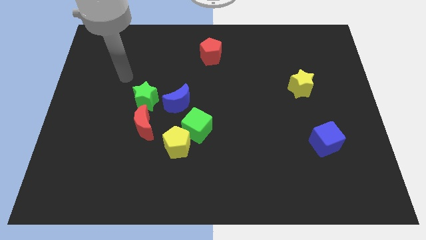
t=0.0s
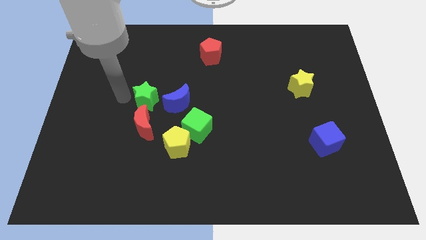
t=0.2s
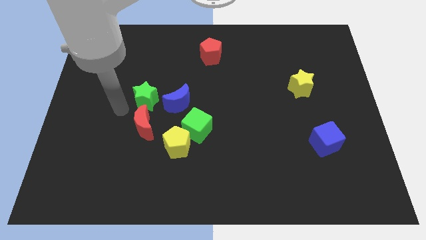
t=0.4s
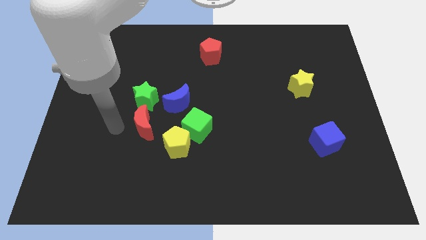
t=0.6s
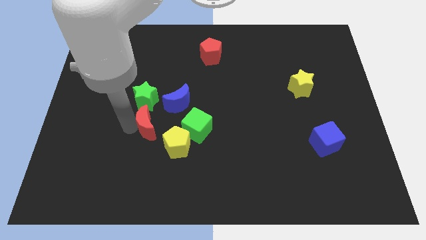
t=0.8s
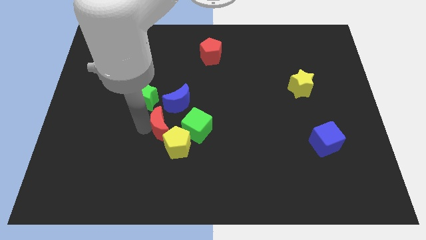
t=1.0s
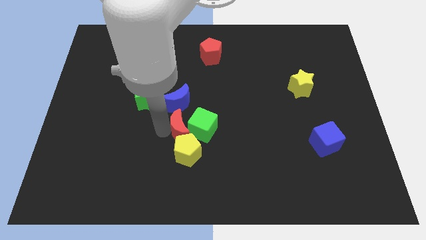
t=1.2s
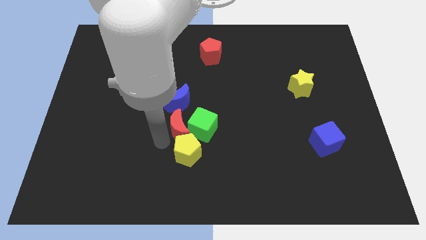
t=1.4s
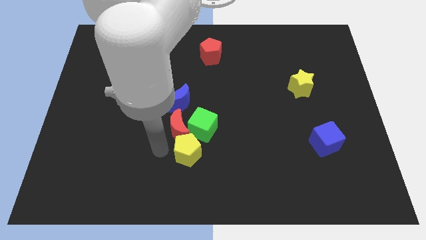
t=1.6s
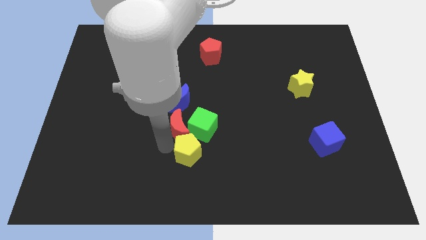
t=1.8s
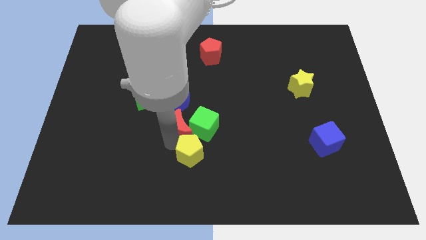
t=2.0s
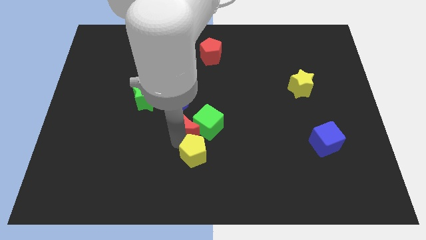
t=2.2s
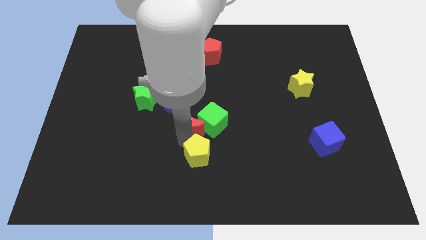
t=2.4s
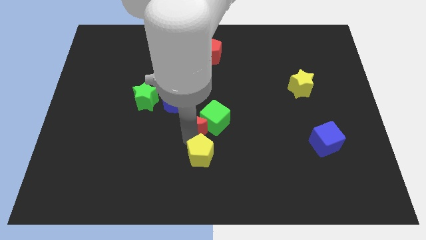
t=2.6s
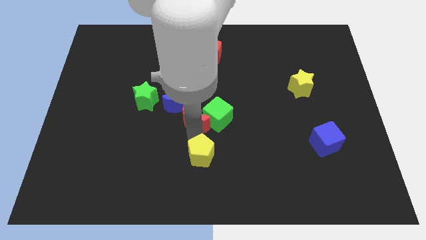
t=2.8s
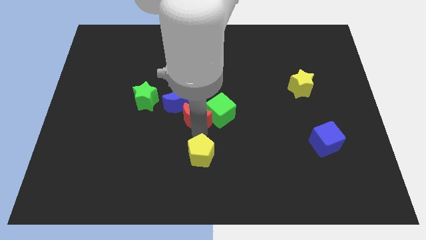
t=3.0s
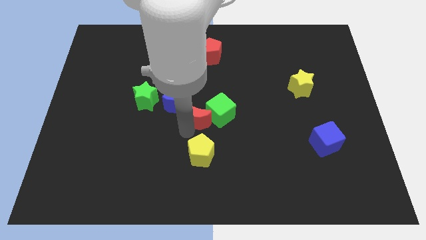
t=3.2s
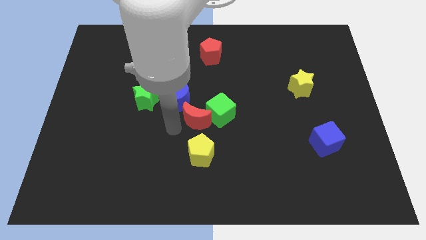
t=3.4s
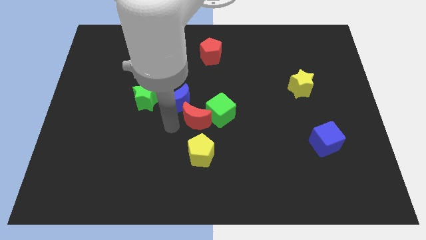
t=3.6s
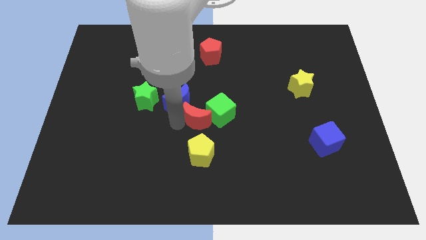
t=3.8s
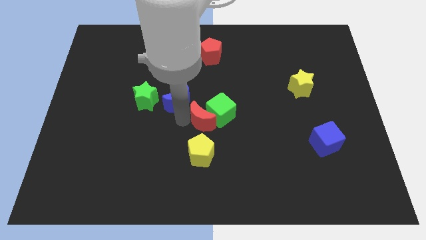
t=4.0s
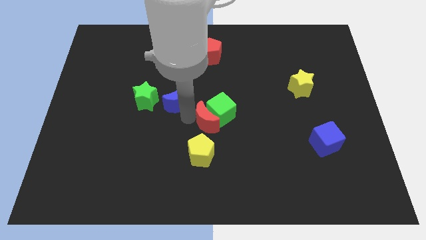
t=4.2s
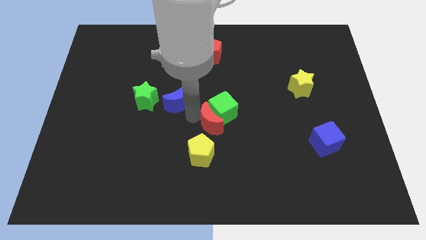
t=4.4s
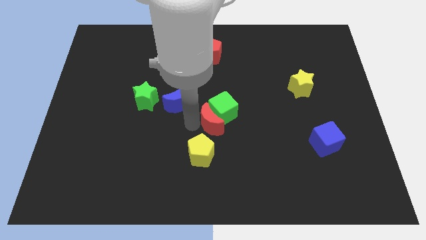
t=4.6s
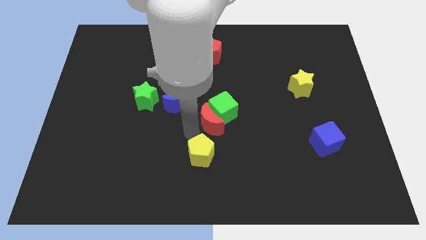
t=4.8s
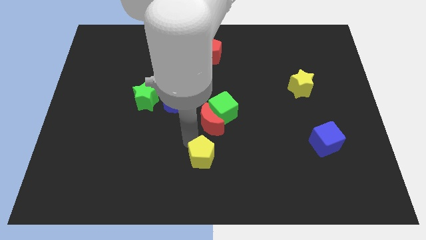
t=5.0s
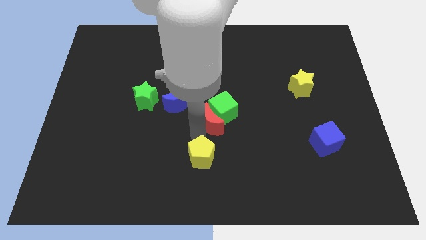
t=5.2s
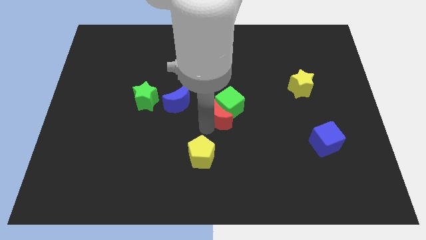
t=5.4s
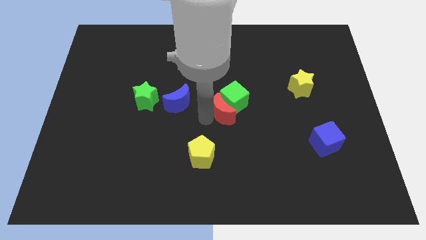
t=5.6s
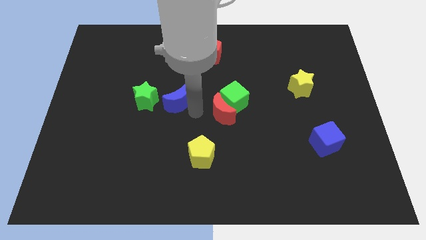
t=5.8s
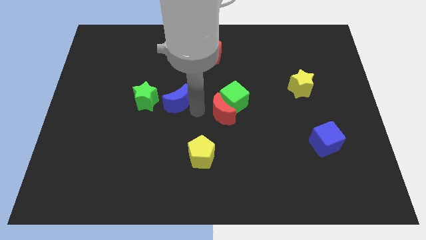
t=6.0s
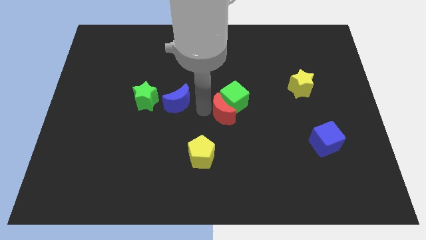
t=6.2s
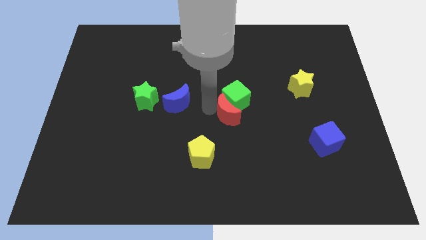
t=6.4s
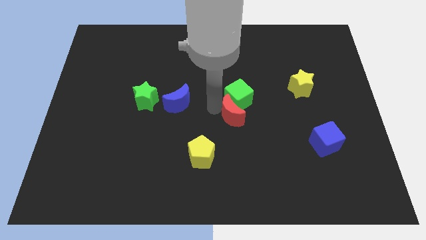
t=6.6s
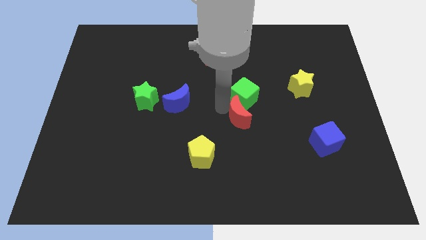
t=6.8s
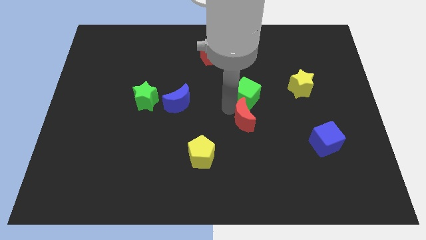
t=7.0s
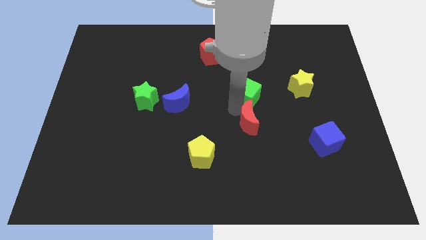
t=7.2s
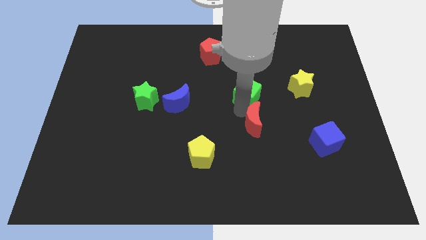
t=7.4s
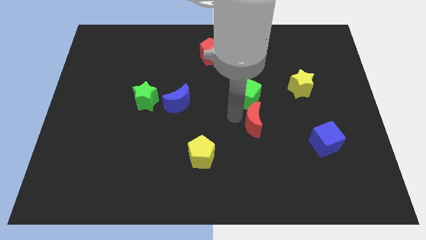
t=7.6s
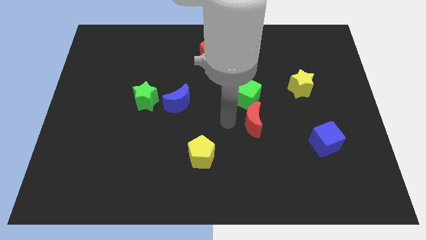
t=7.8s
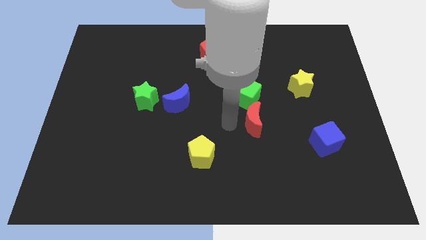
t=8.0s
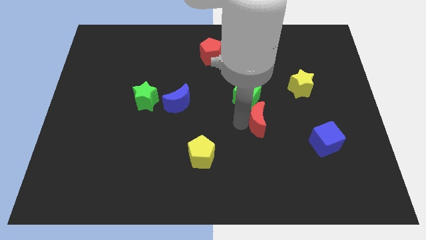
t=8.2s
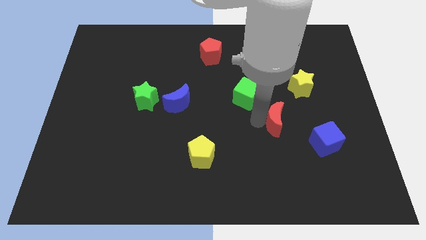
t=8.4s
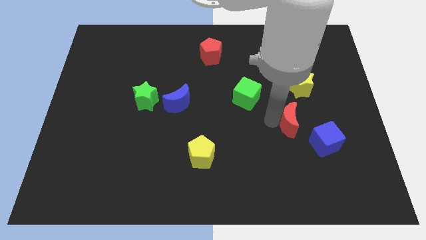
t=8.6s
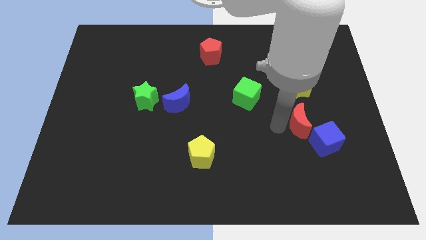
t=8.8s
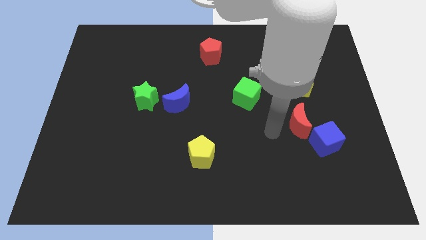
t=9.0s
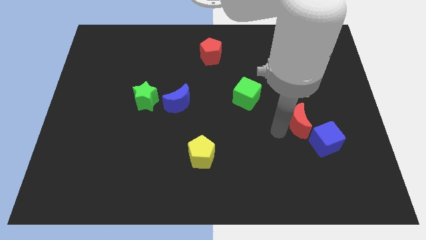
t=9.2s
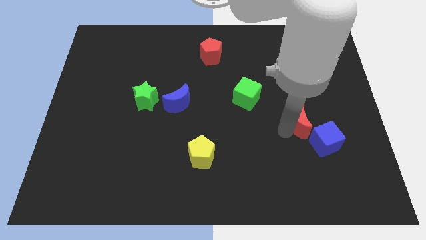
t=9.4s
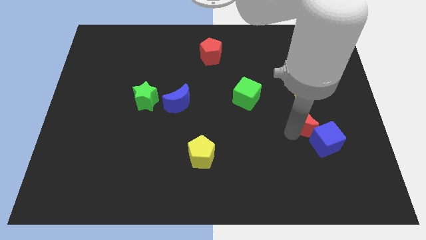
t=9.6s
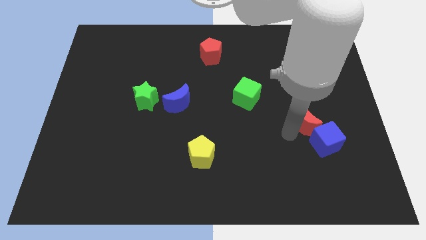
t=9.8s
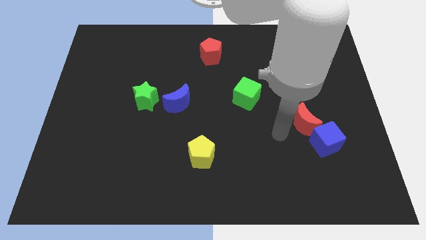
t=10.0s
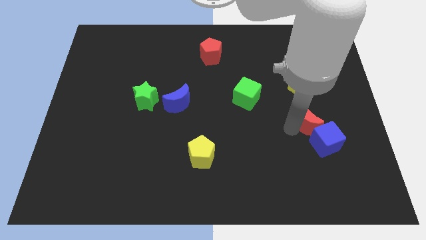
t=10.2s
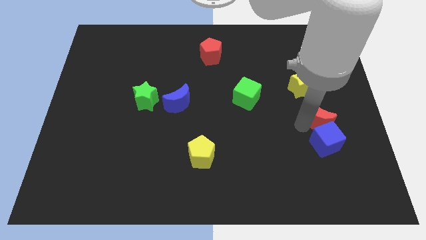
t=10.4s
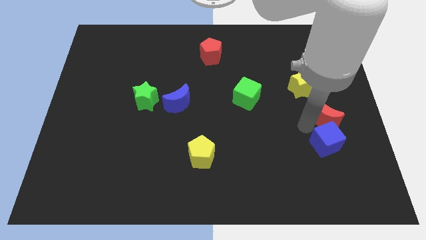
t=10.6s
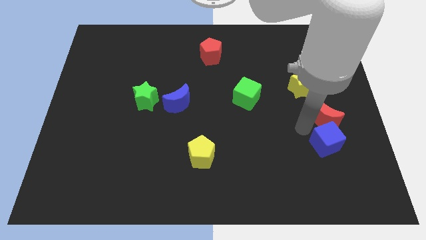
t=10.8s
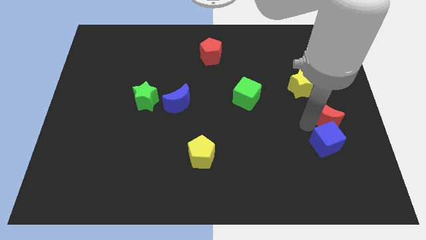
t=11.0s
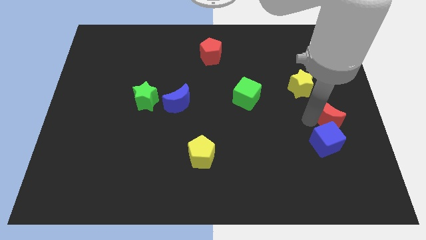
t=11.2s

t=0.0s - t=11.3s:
move the red moon to the center right

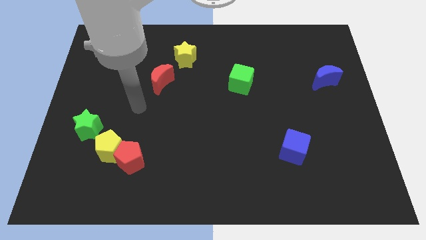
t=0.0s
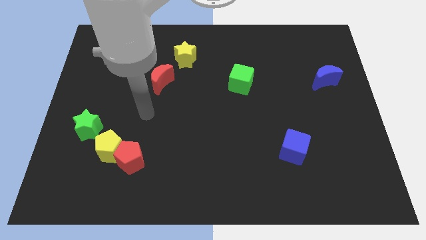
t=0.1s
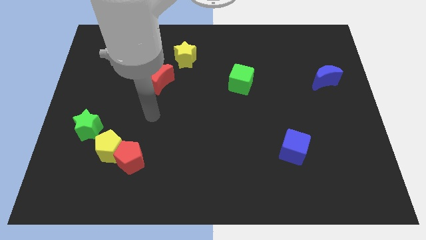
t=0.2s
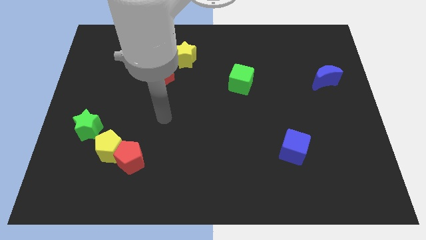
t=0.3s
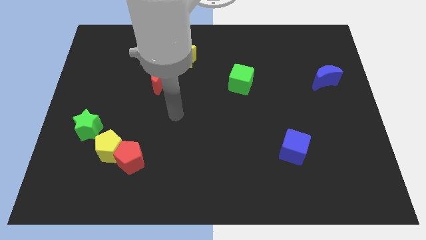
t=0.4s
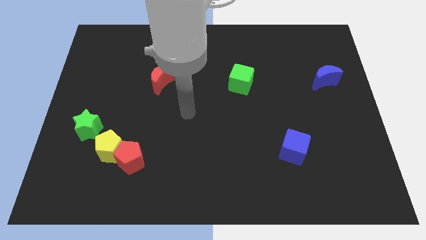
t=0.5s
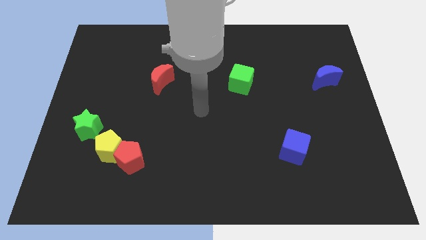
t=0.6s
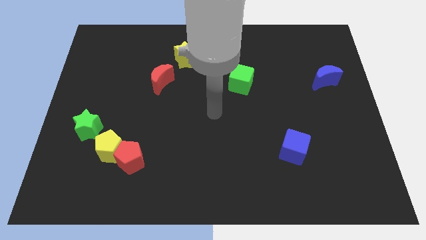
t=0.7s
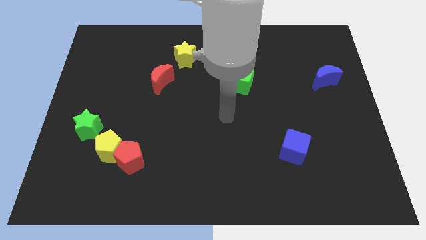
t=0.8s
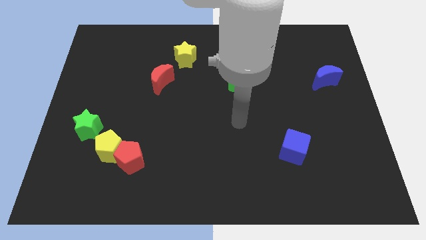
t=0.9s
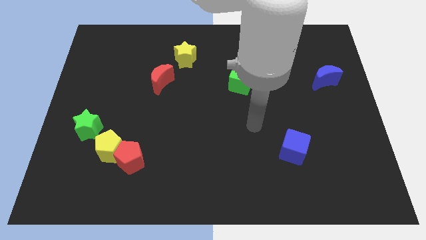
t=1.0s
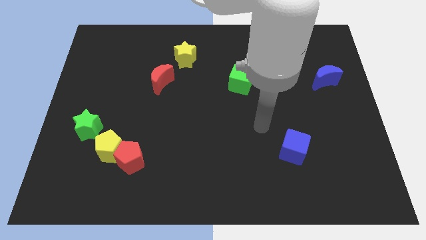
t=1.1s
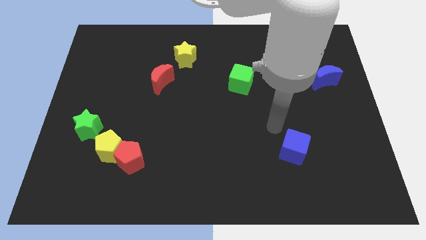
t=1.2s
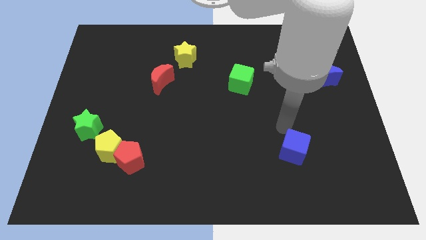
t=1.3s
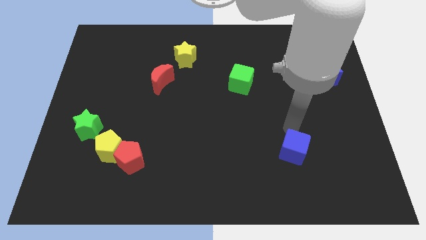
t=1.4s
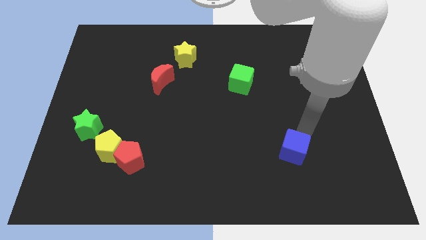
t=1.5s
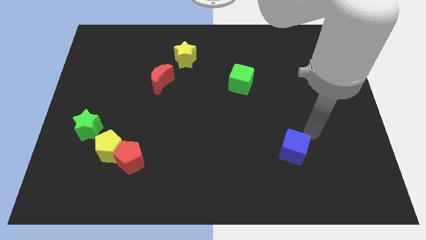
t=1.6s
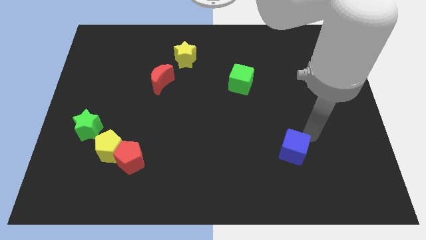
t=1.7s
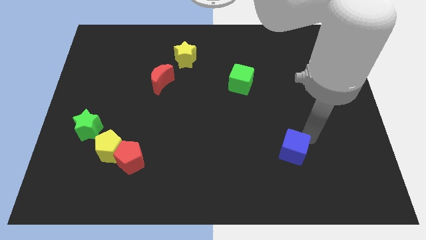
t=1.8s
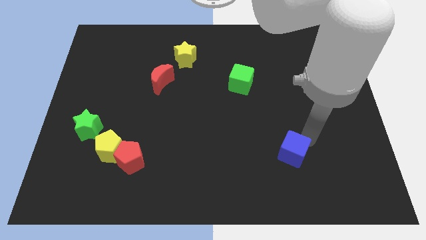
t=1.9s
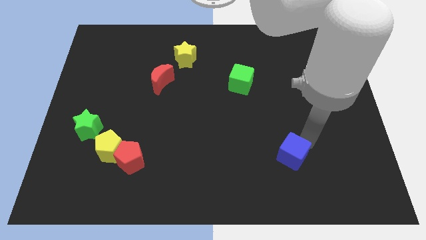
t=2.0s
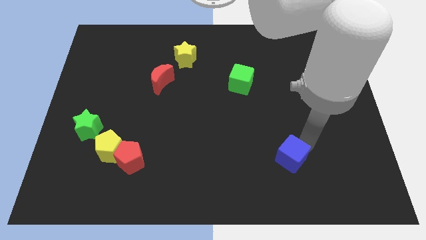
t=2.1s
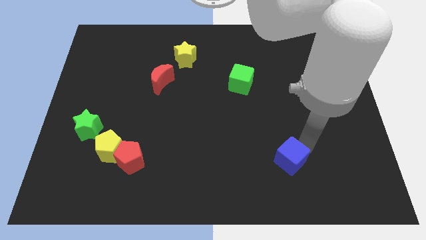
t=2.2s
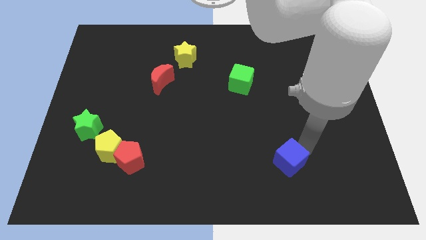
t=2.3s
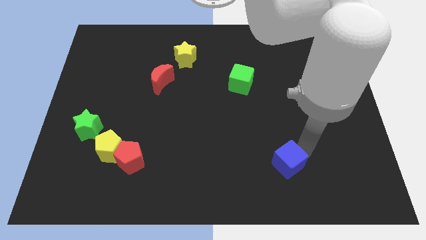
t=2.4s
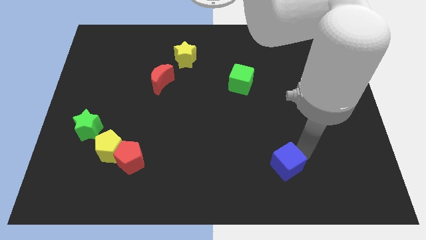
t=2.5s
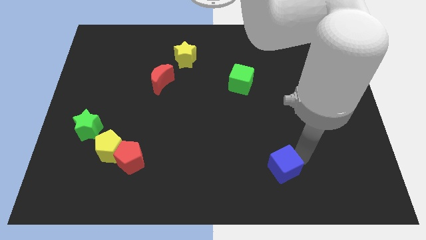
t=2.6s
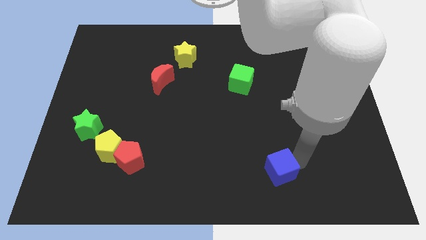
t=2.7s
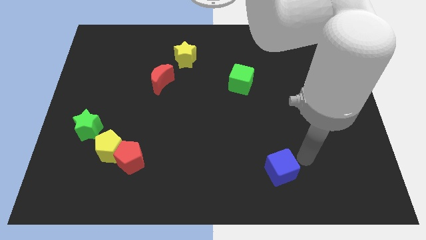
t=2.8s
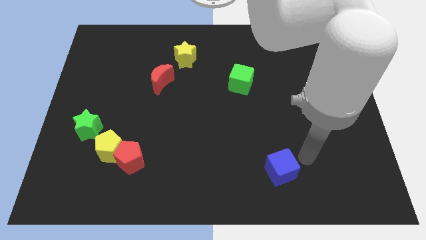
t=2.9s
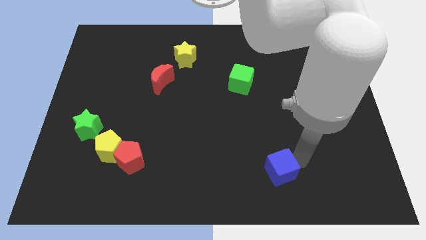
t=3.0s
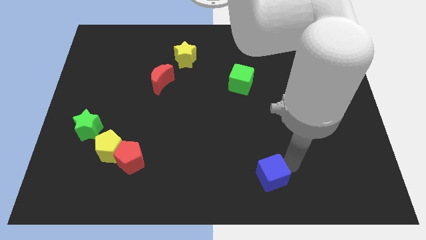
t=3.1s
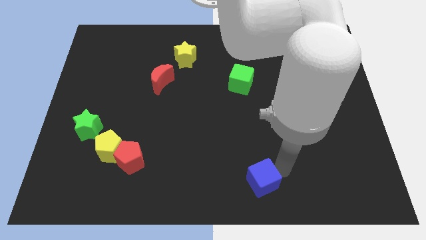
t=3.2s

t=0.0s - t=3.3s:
slide the blue cube to the bottom side
